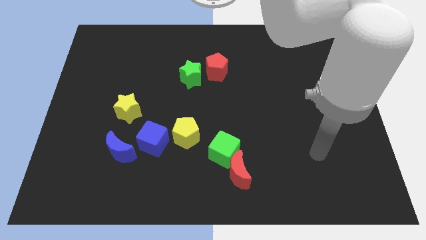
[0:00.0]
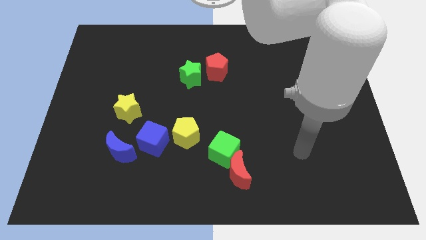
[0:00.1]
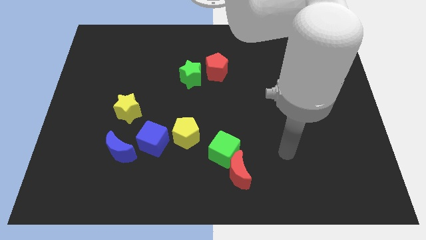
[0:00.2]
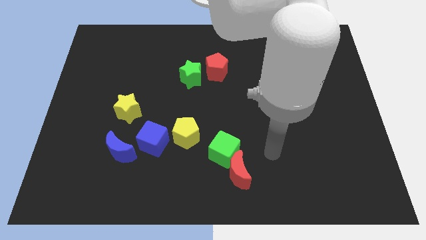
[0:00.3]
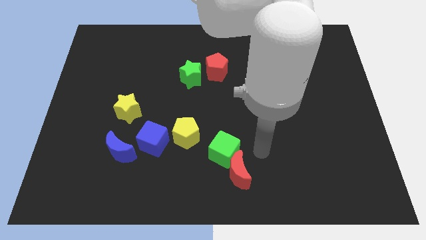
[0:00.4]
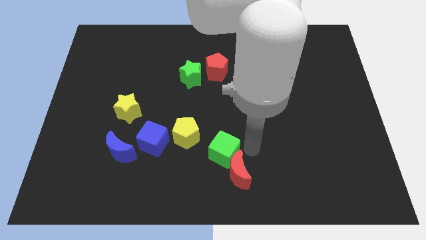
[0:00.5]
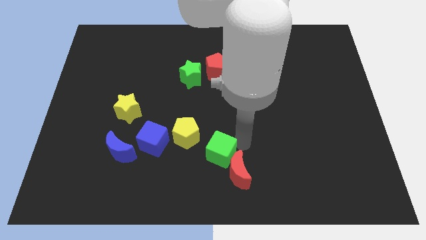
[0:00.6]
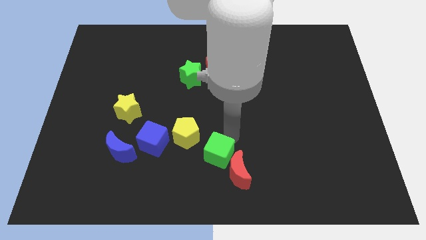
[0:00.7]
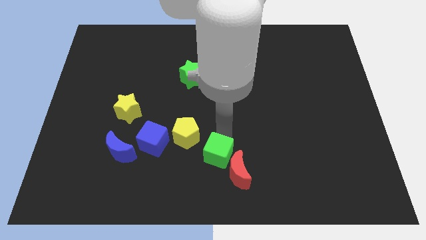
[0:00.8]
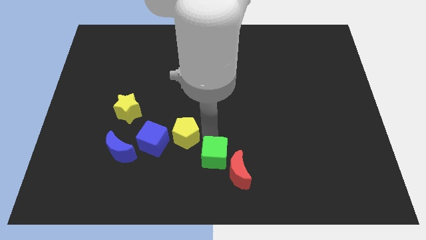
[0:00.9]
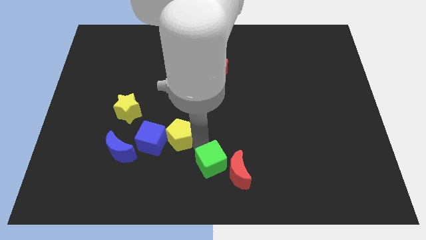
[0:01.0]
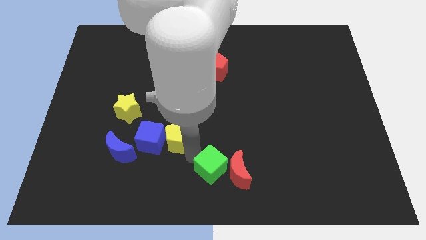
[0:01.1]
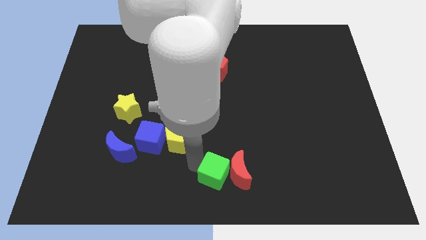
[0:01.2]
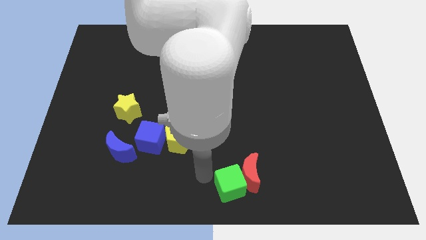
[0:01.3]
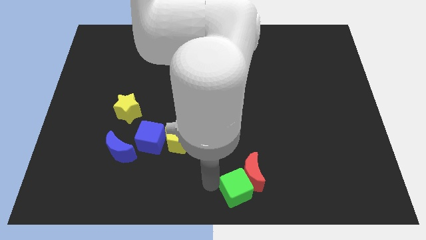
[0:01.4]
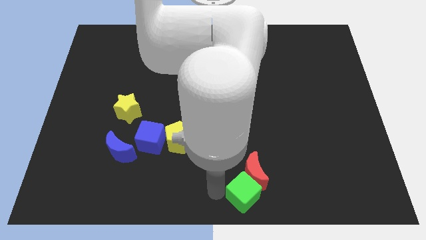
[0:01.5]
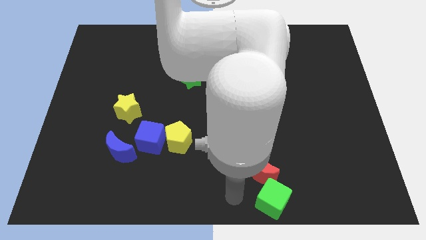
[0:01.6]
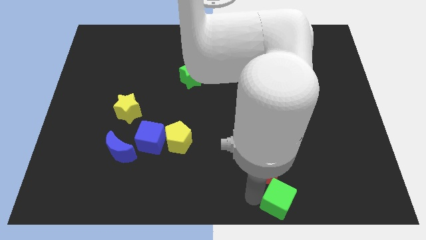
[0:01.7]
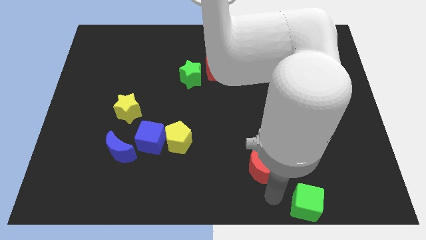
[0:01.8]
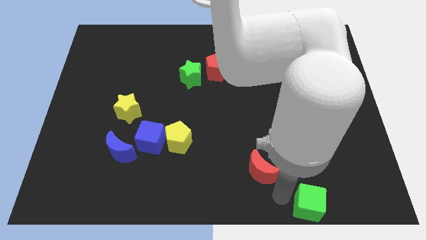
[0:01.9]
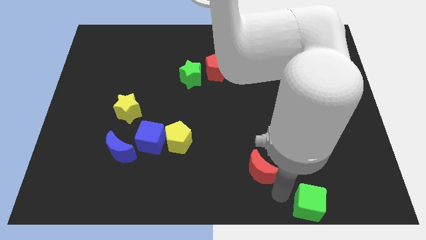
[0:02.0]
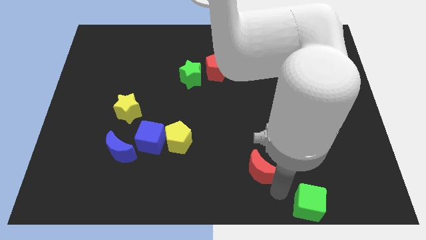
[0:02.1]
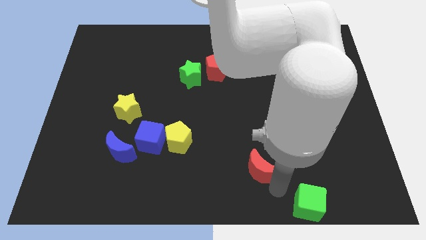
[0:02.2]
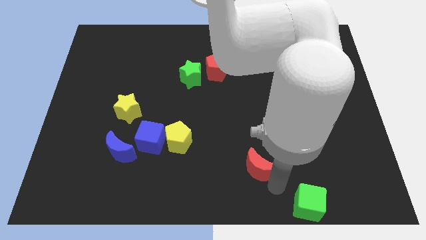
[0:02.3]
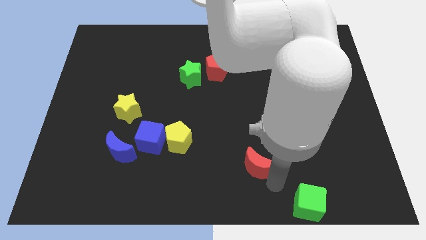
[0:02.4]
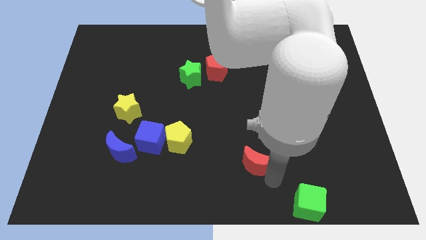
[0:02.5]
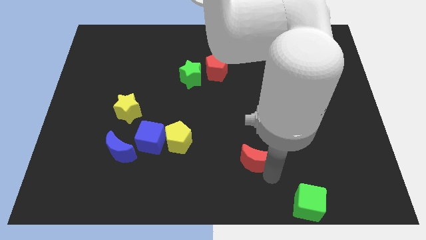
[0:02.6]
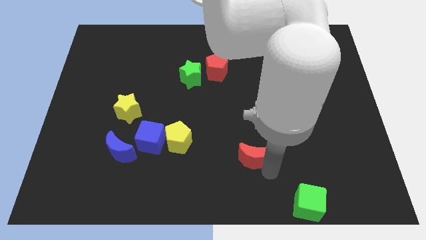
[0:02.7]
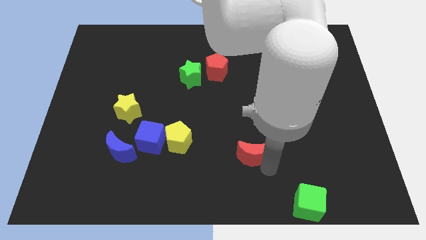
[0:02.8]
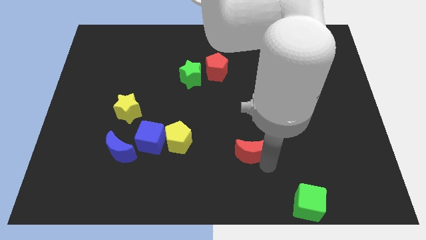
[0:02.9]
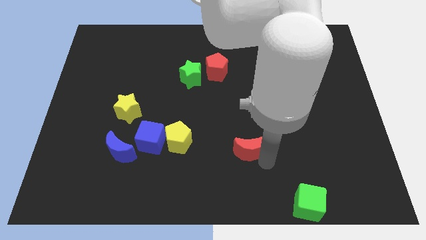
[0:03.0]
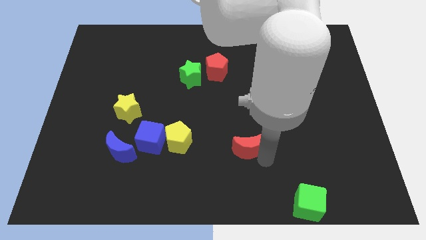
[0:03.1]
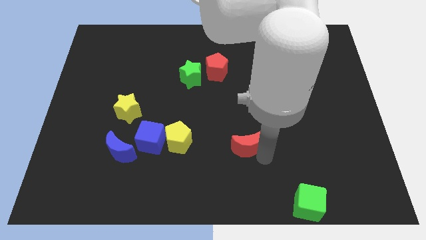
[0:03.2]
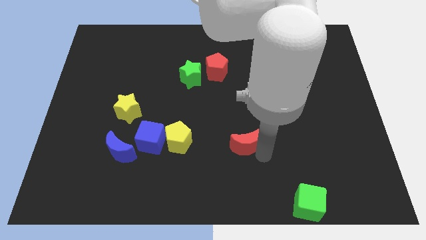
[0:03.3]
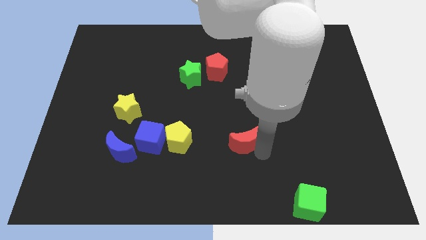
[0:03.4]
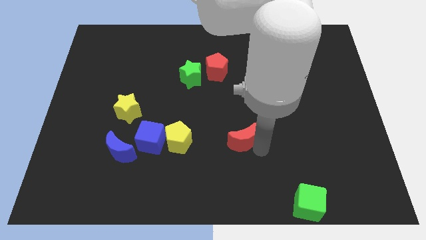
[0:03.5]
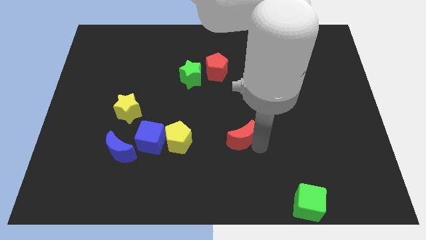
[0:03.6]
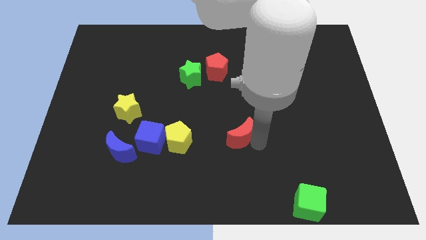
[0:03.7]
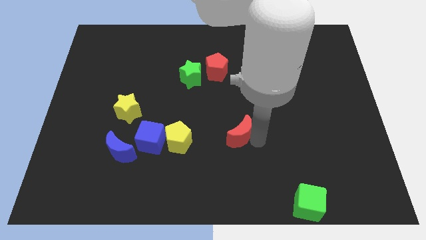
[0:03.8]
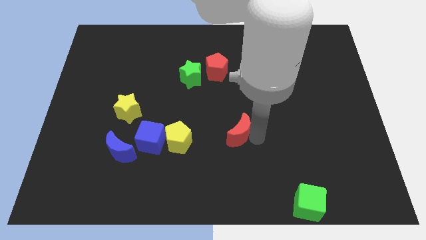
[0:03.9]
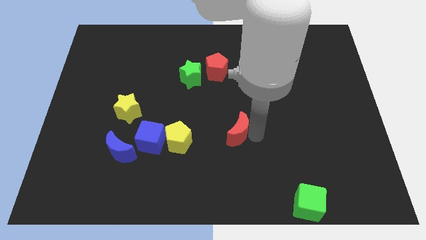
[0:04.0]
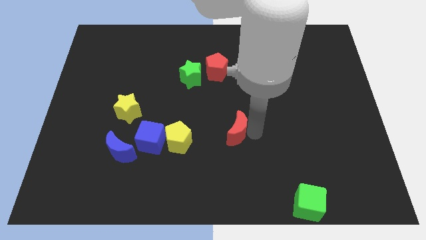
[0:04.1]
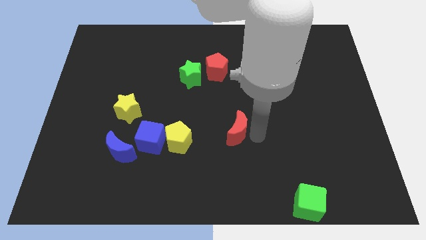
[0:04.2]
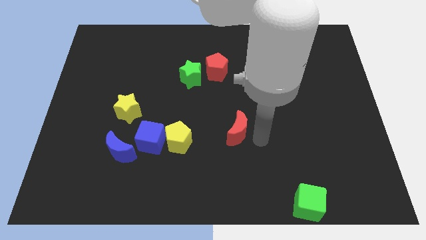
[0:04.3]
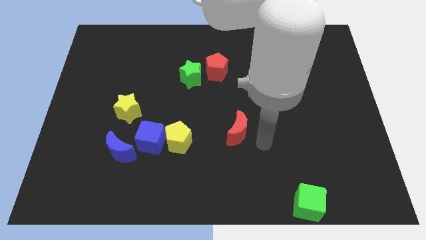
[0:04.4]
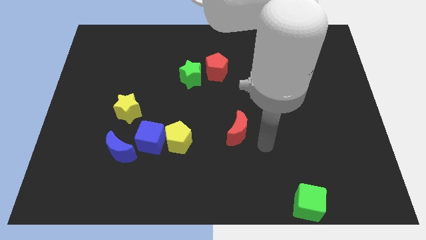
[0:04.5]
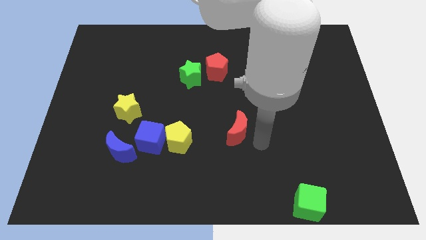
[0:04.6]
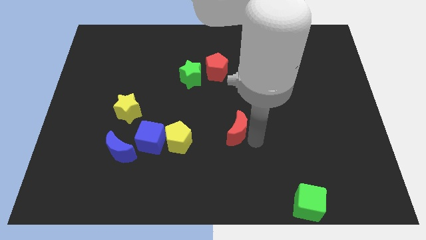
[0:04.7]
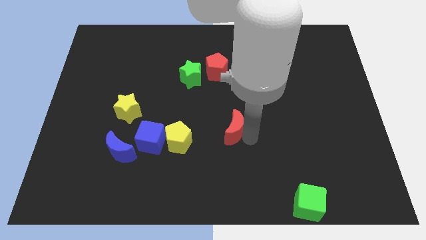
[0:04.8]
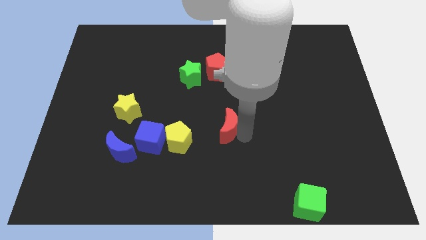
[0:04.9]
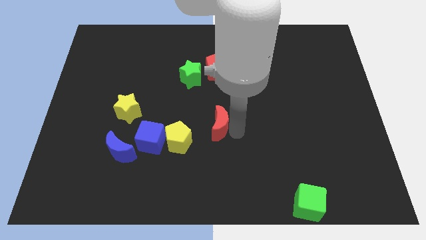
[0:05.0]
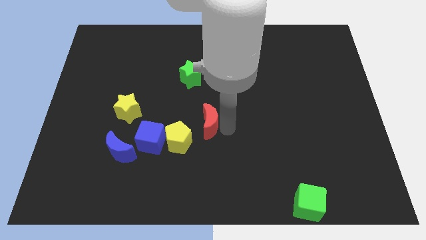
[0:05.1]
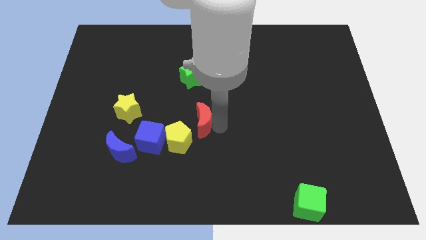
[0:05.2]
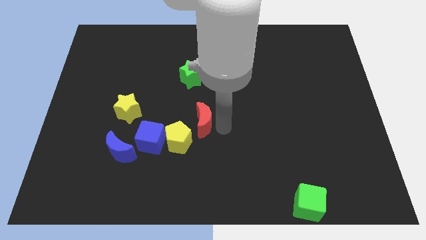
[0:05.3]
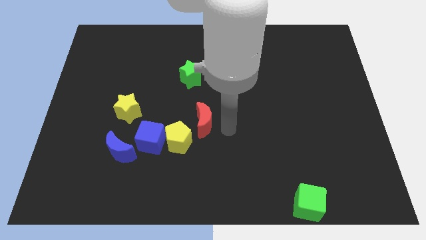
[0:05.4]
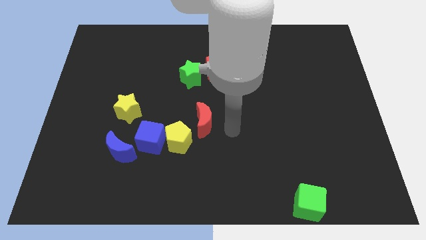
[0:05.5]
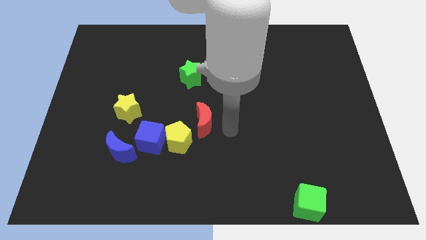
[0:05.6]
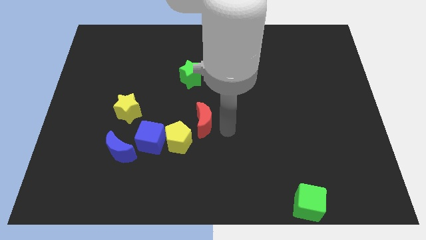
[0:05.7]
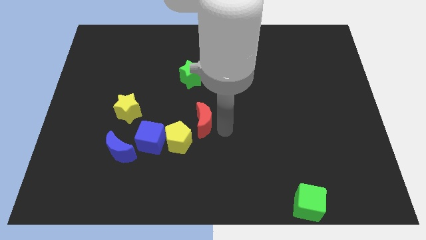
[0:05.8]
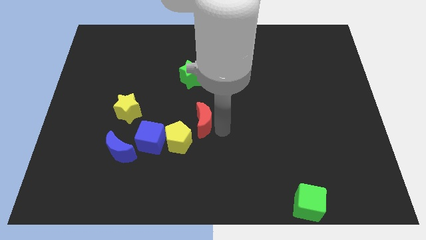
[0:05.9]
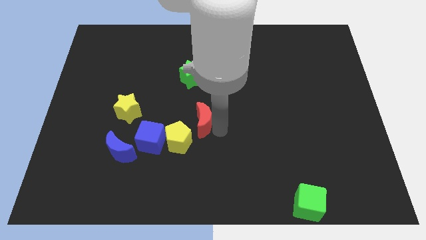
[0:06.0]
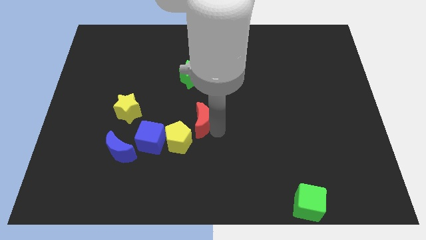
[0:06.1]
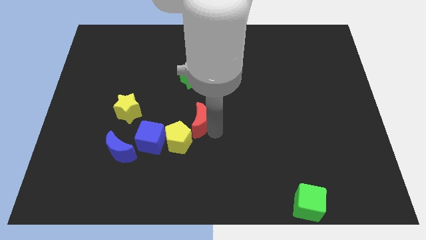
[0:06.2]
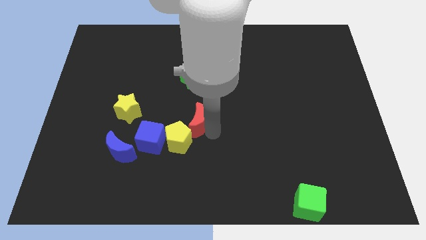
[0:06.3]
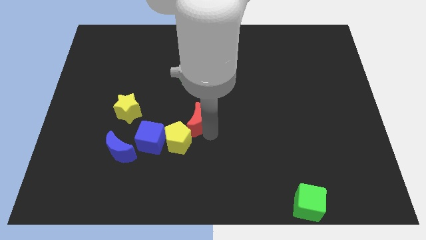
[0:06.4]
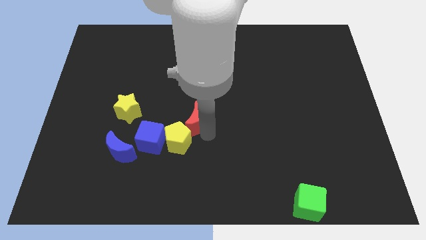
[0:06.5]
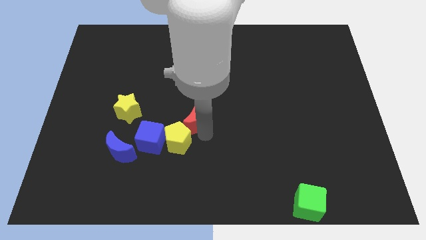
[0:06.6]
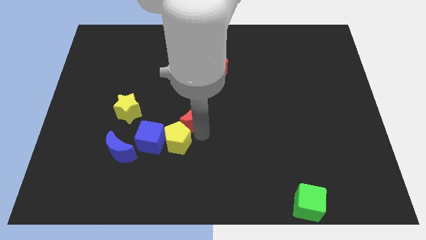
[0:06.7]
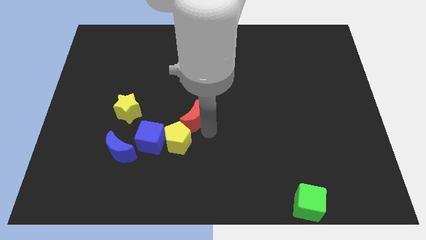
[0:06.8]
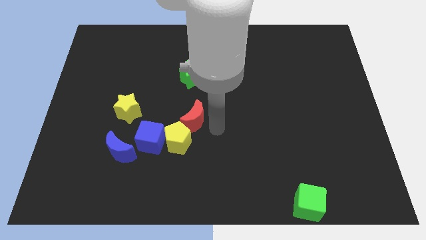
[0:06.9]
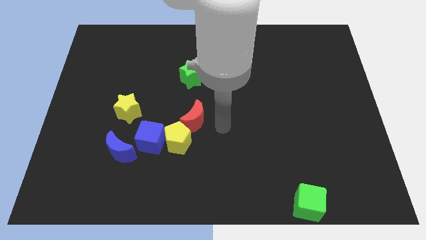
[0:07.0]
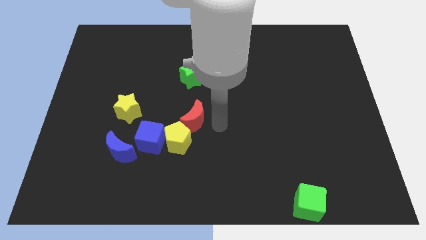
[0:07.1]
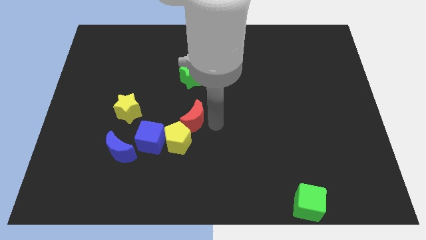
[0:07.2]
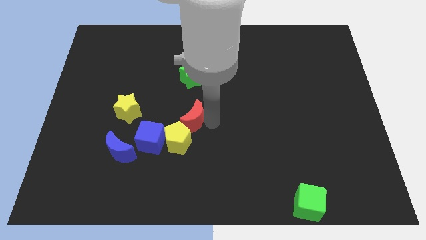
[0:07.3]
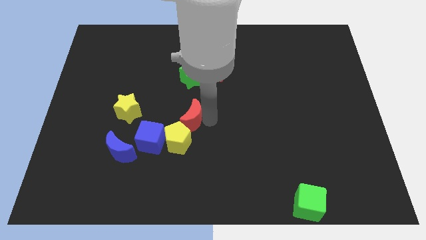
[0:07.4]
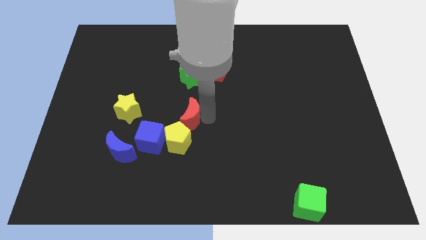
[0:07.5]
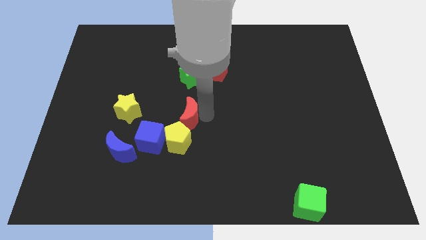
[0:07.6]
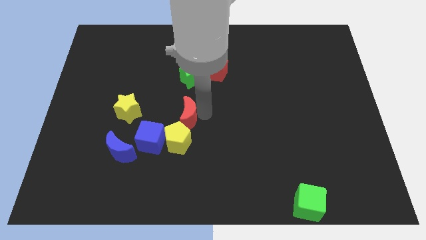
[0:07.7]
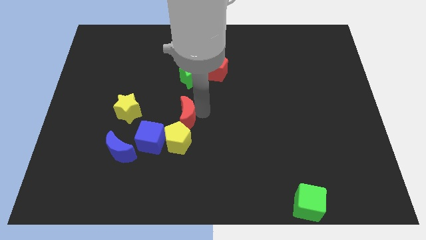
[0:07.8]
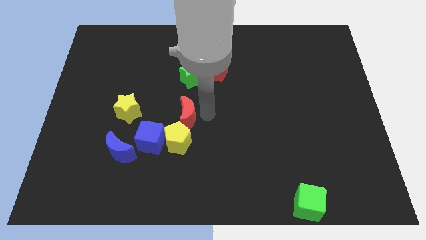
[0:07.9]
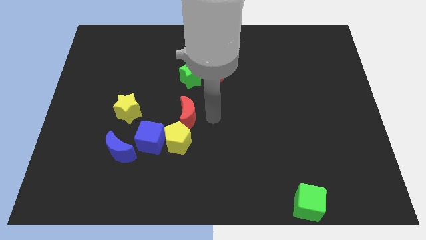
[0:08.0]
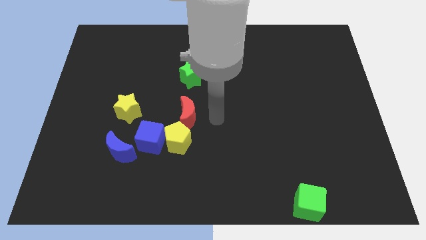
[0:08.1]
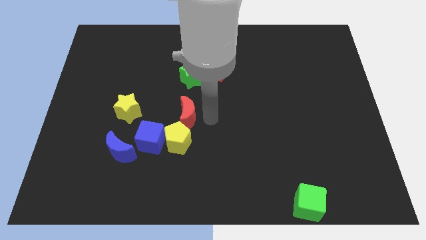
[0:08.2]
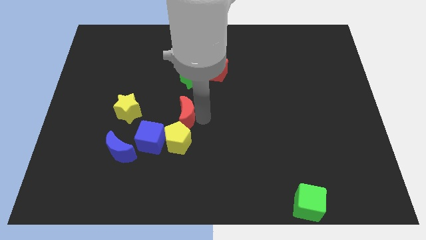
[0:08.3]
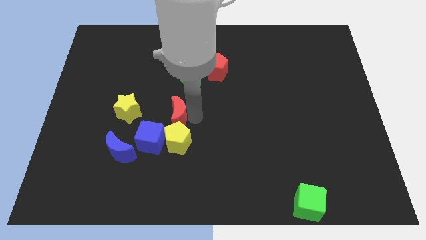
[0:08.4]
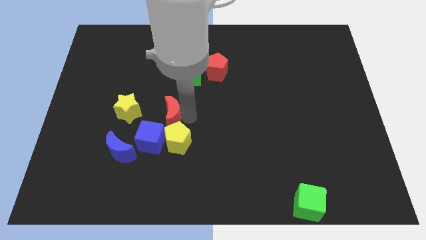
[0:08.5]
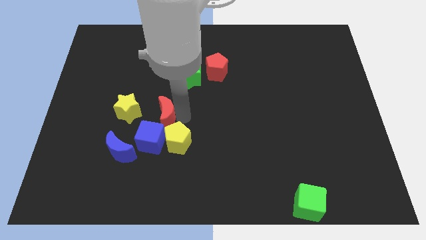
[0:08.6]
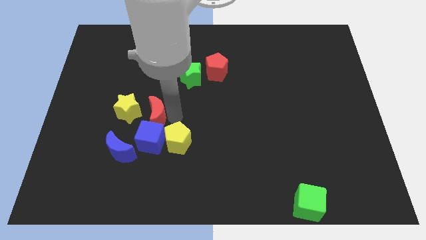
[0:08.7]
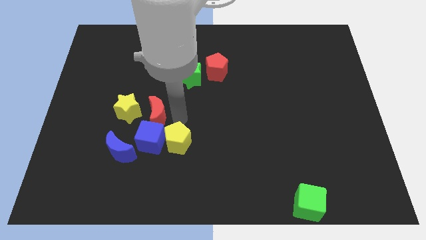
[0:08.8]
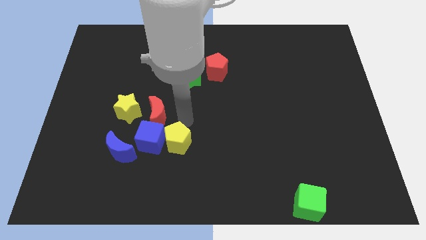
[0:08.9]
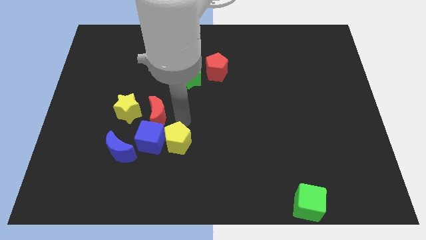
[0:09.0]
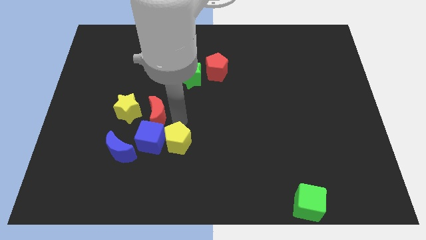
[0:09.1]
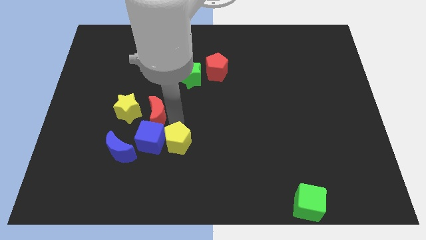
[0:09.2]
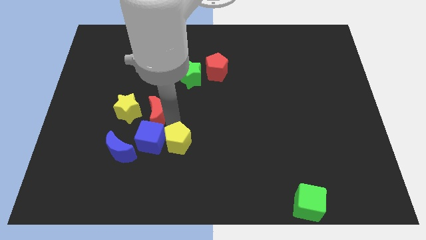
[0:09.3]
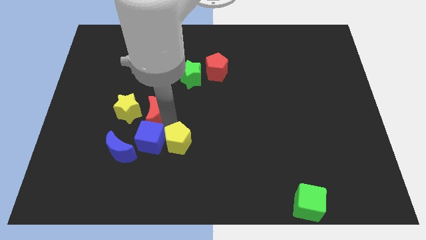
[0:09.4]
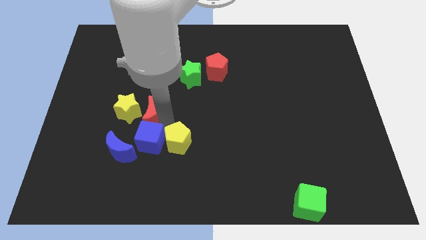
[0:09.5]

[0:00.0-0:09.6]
push the red moon next to the yellow star
